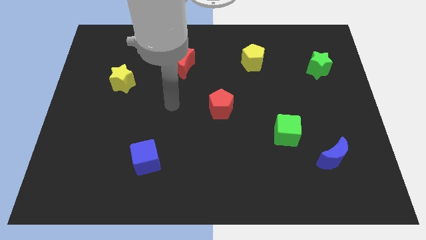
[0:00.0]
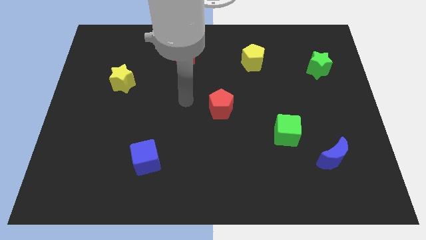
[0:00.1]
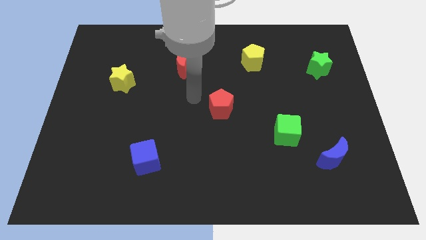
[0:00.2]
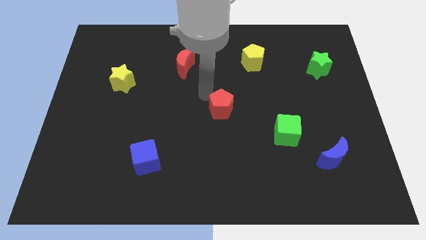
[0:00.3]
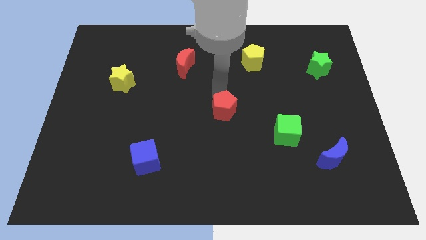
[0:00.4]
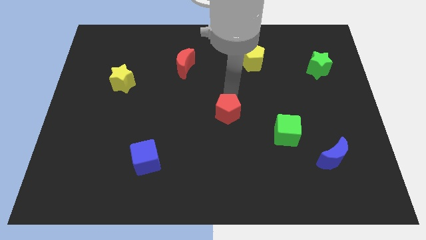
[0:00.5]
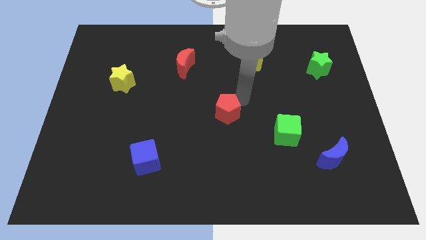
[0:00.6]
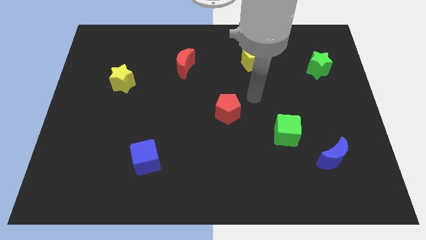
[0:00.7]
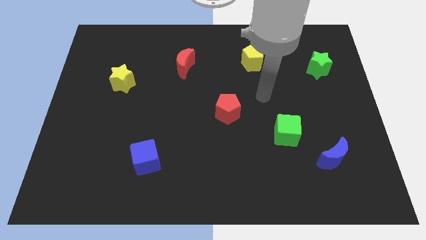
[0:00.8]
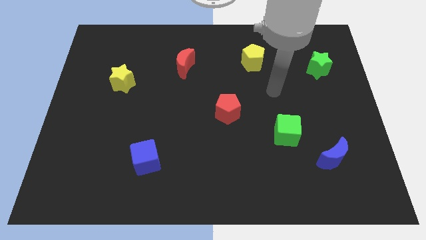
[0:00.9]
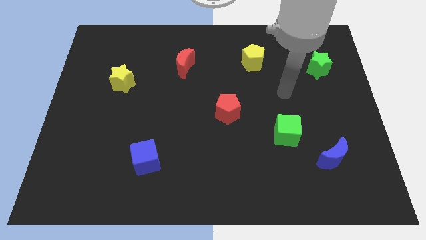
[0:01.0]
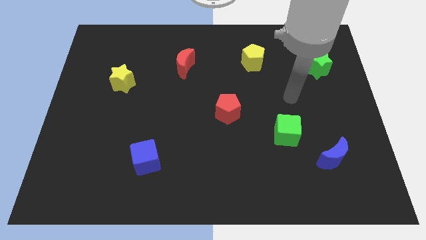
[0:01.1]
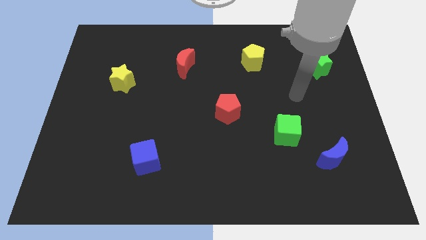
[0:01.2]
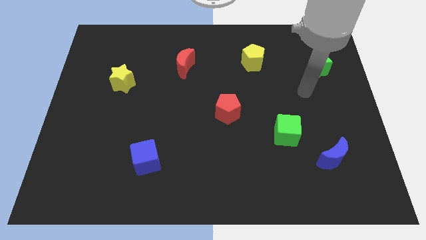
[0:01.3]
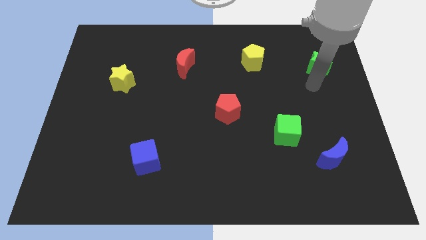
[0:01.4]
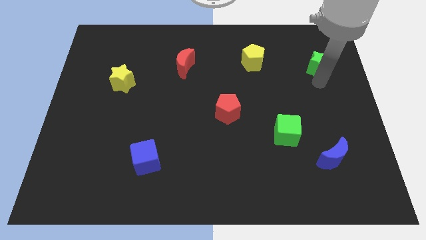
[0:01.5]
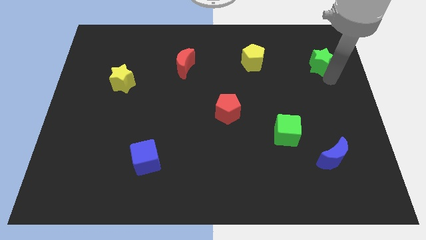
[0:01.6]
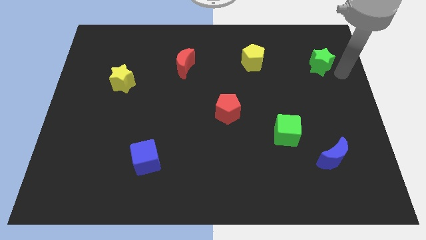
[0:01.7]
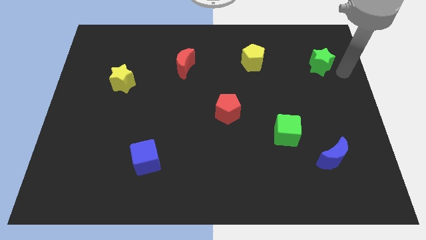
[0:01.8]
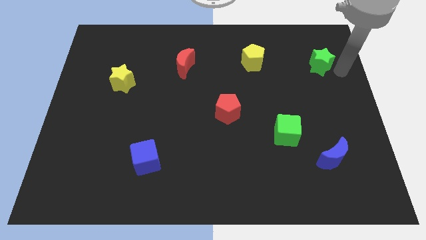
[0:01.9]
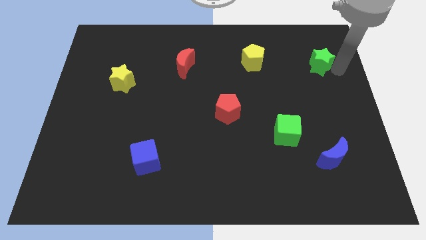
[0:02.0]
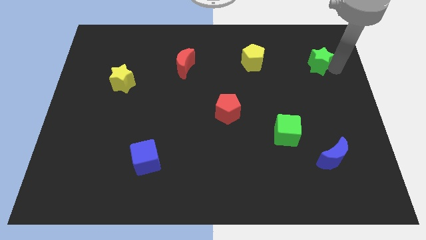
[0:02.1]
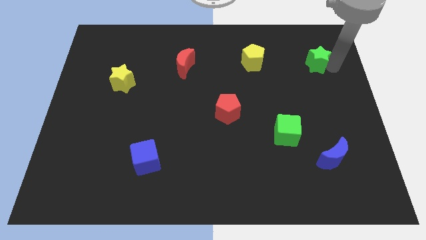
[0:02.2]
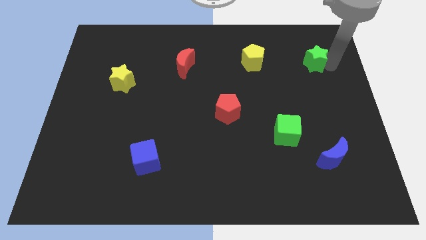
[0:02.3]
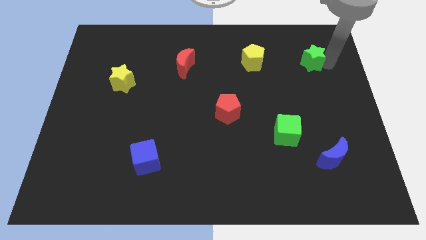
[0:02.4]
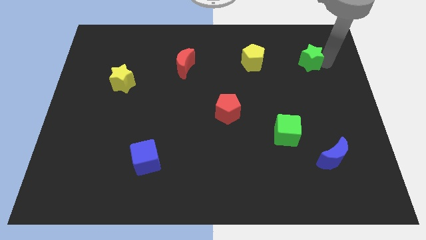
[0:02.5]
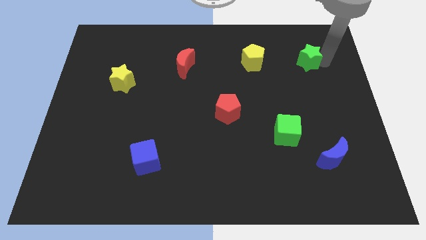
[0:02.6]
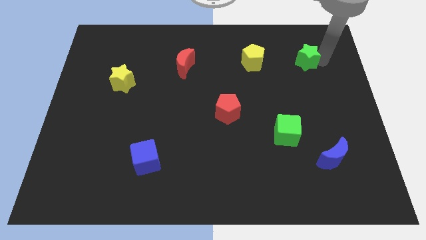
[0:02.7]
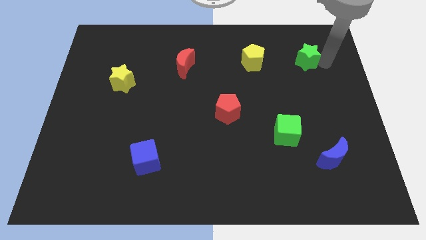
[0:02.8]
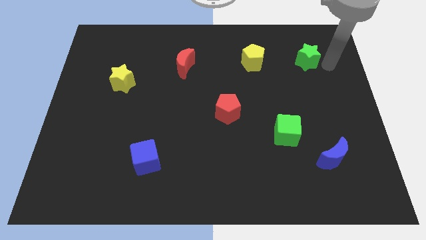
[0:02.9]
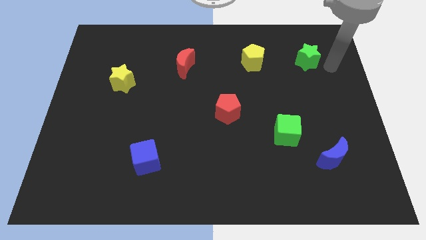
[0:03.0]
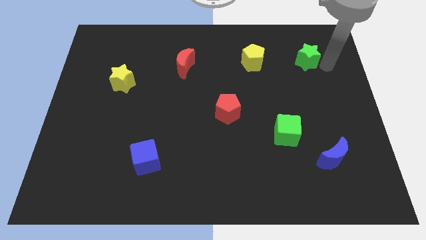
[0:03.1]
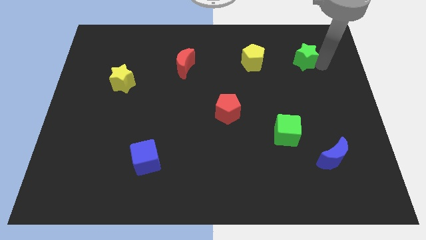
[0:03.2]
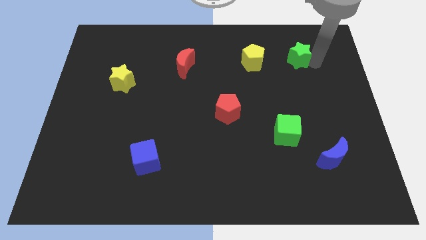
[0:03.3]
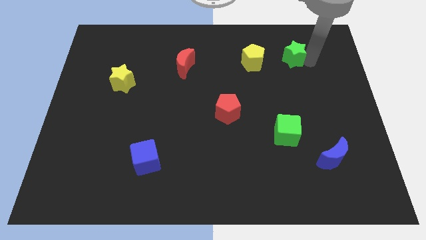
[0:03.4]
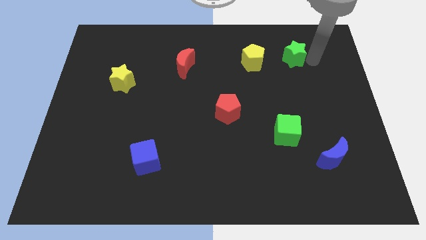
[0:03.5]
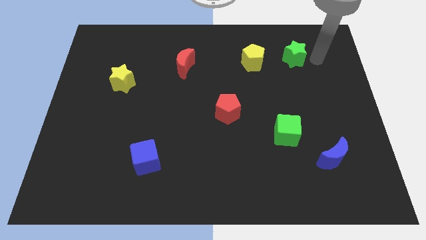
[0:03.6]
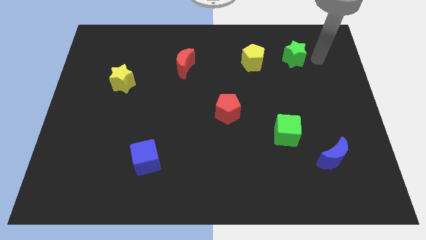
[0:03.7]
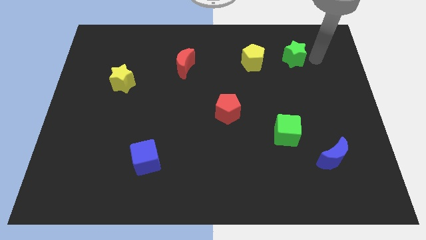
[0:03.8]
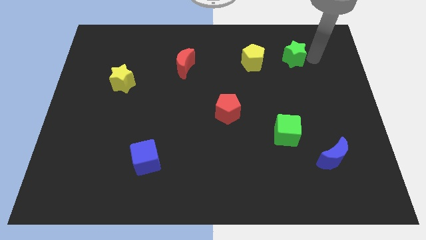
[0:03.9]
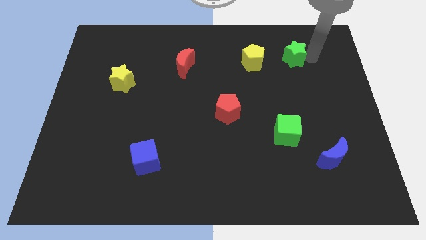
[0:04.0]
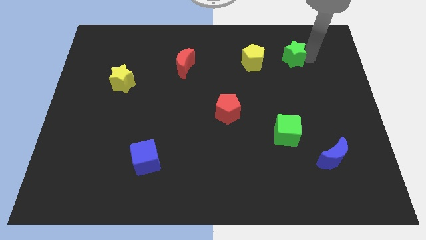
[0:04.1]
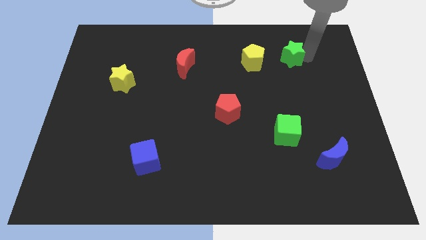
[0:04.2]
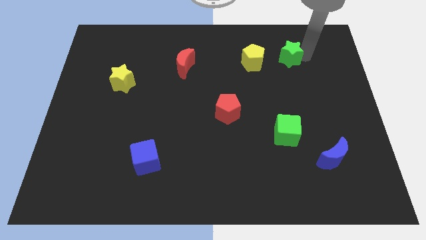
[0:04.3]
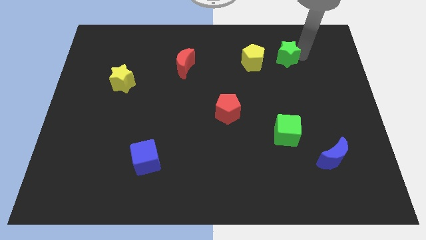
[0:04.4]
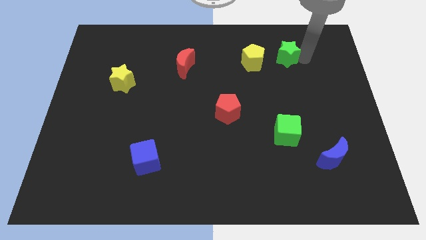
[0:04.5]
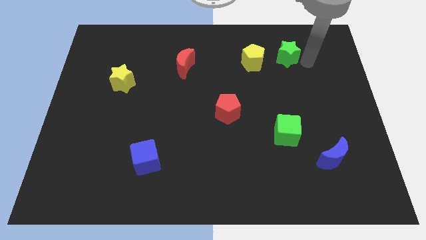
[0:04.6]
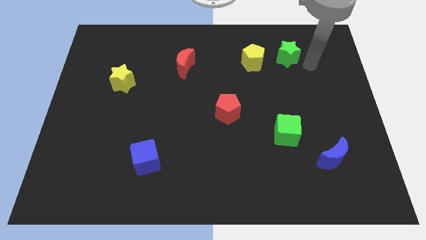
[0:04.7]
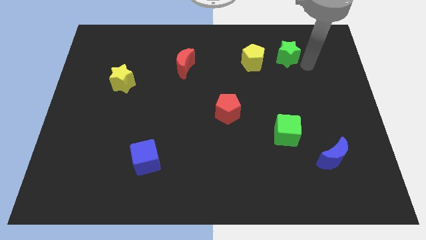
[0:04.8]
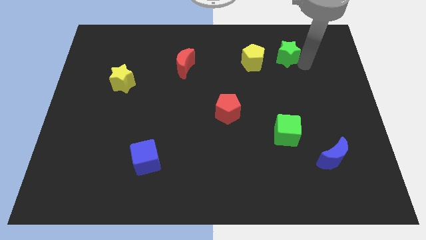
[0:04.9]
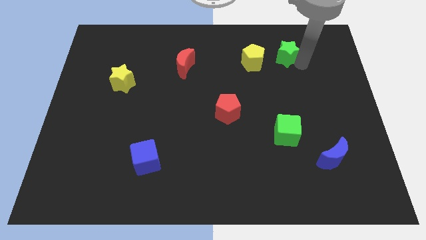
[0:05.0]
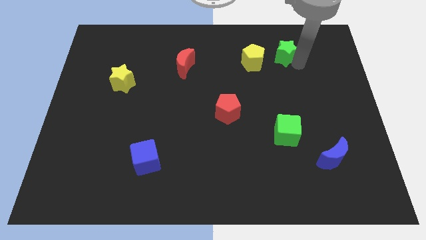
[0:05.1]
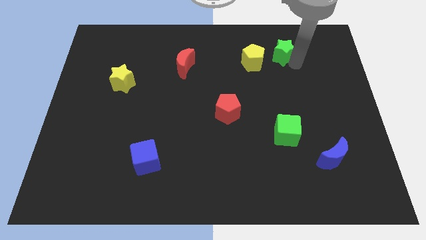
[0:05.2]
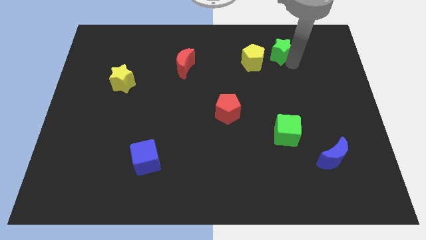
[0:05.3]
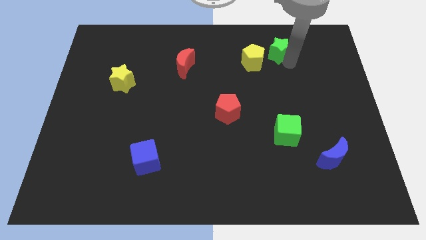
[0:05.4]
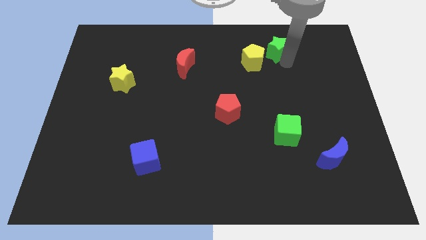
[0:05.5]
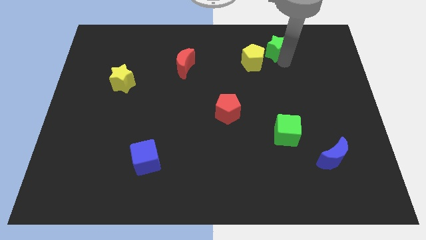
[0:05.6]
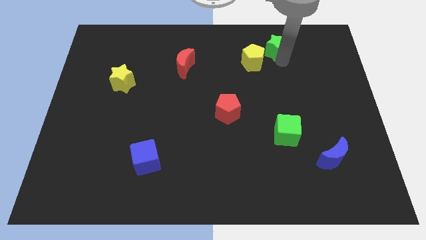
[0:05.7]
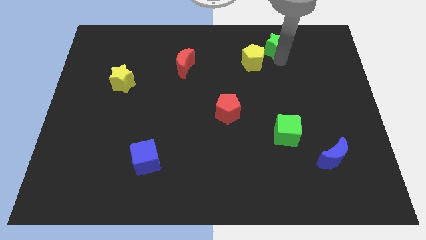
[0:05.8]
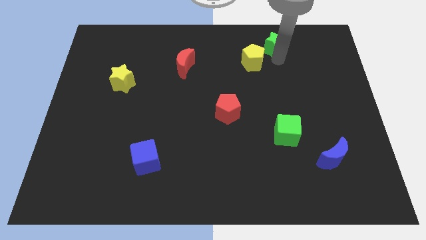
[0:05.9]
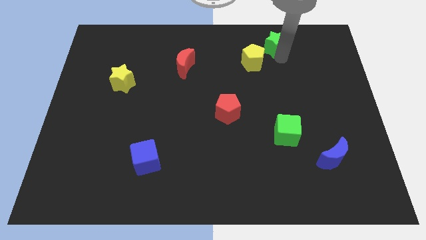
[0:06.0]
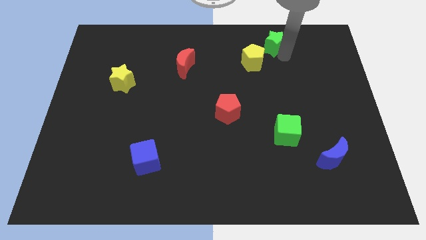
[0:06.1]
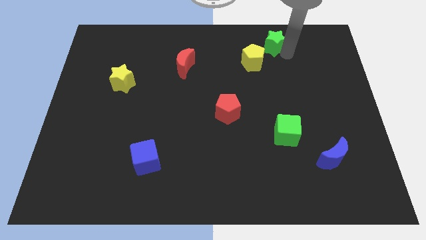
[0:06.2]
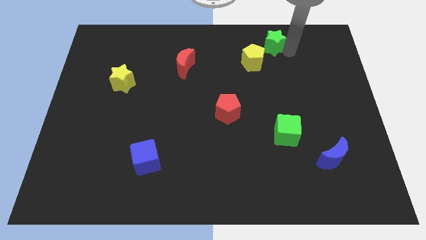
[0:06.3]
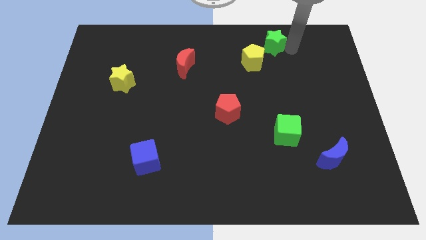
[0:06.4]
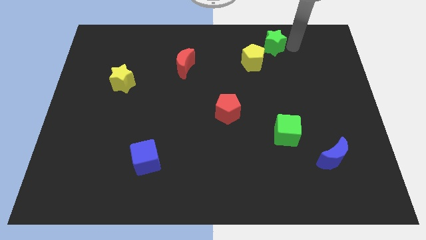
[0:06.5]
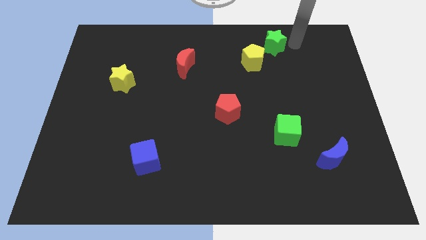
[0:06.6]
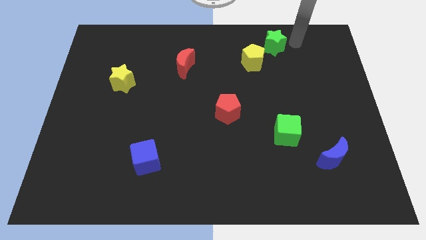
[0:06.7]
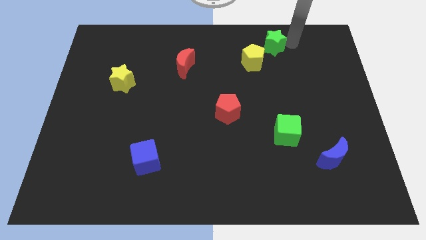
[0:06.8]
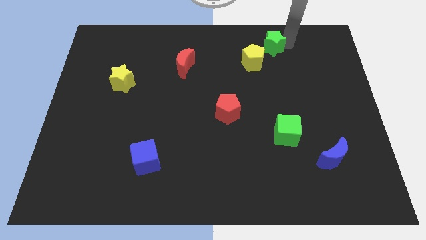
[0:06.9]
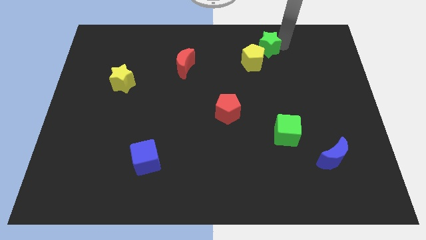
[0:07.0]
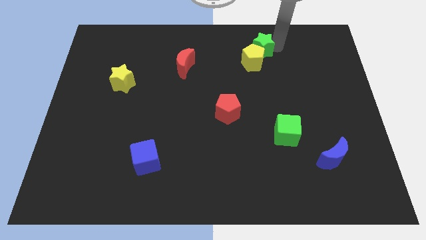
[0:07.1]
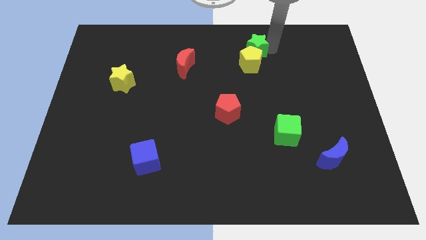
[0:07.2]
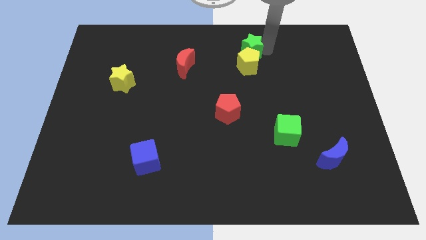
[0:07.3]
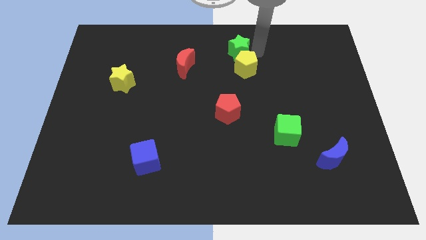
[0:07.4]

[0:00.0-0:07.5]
move the green star to the towards your base
